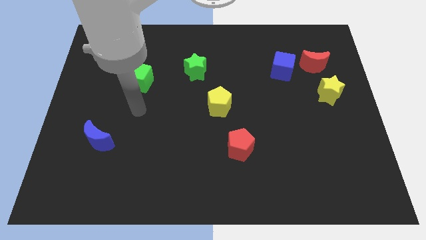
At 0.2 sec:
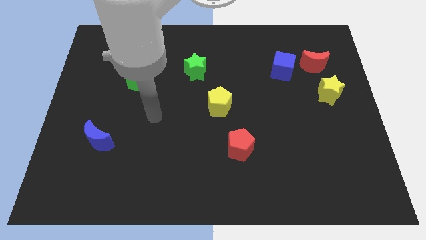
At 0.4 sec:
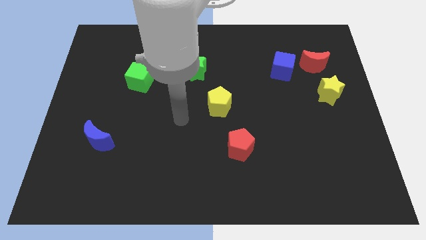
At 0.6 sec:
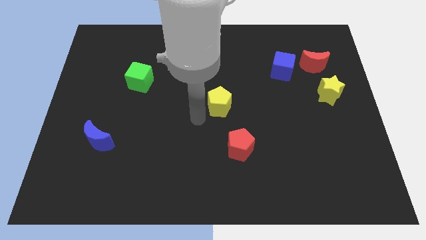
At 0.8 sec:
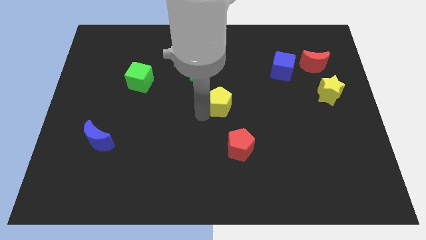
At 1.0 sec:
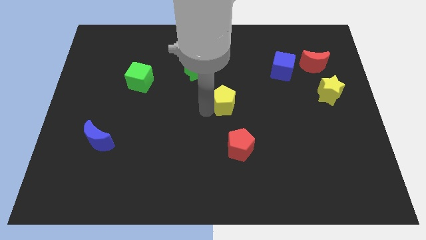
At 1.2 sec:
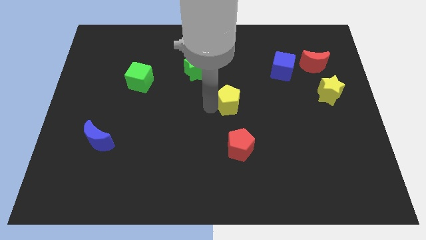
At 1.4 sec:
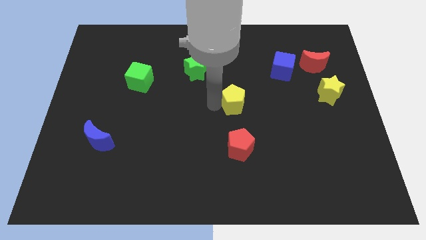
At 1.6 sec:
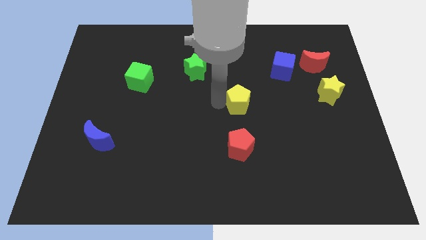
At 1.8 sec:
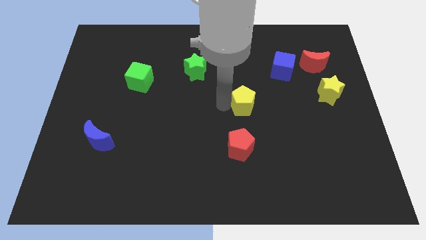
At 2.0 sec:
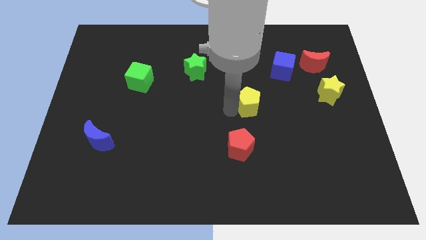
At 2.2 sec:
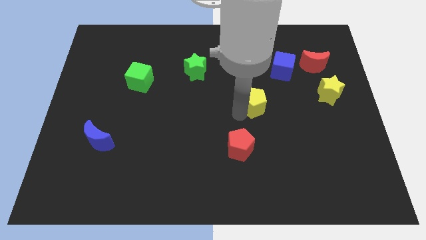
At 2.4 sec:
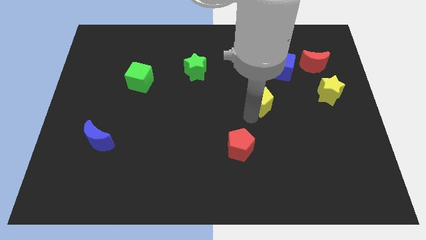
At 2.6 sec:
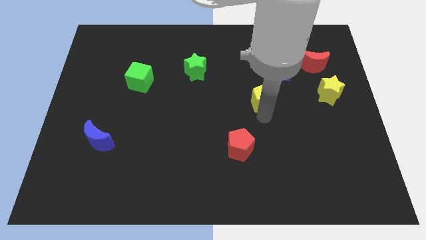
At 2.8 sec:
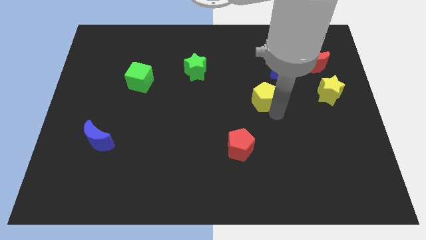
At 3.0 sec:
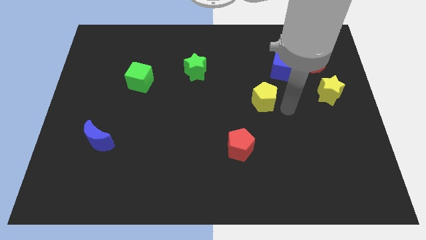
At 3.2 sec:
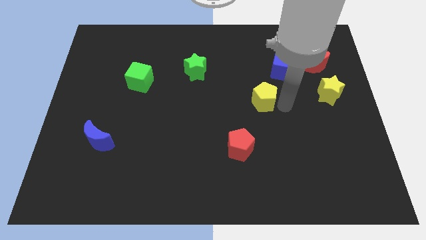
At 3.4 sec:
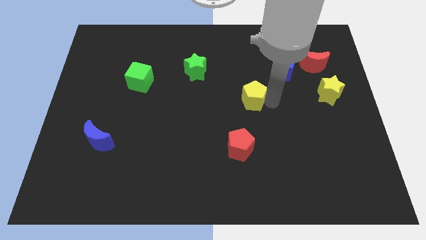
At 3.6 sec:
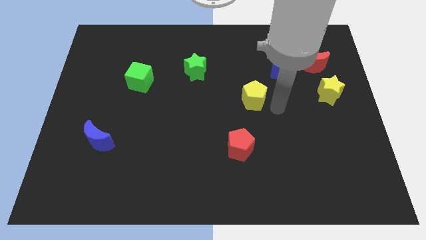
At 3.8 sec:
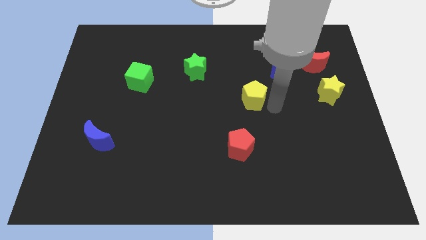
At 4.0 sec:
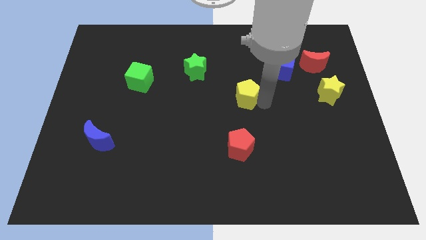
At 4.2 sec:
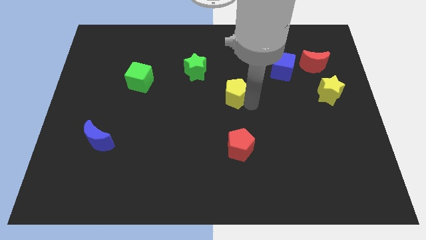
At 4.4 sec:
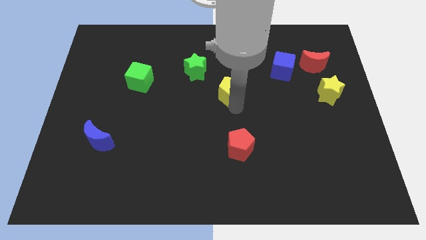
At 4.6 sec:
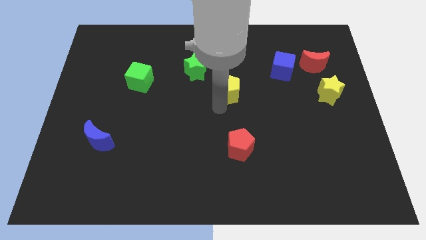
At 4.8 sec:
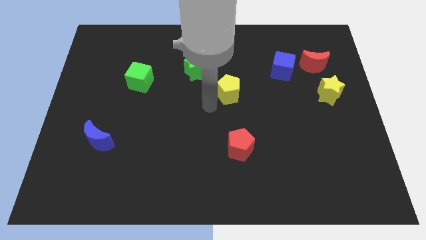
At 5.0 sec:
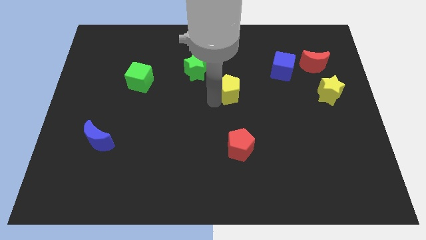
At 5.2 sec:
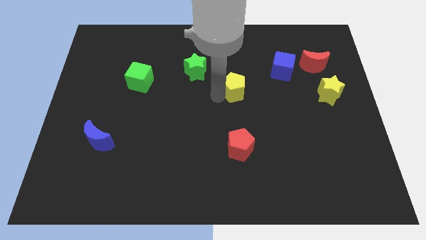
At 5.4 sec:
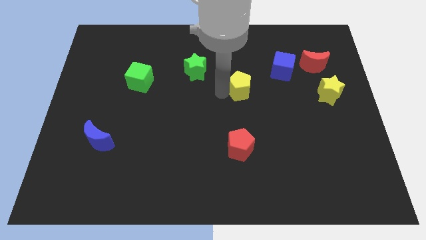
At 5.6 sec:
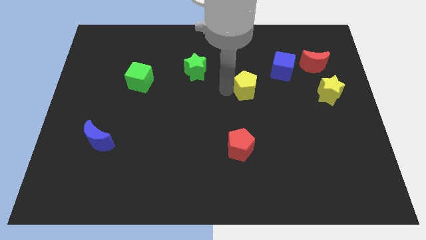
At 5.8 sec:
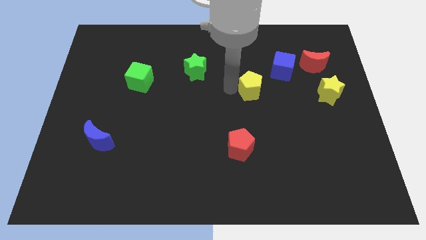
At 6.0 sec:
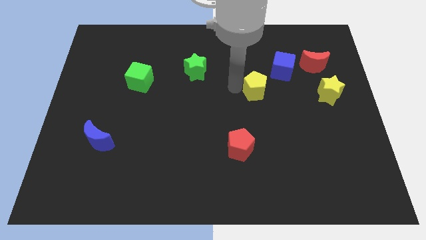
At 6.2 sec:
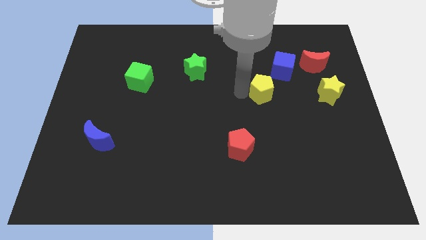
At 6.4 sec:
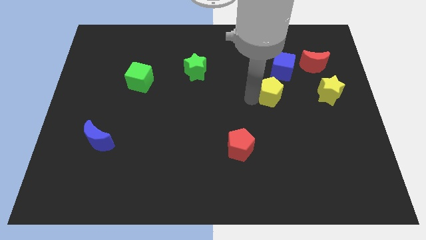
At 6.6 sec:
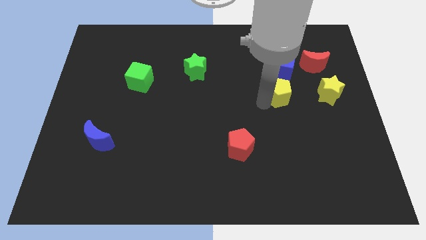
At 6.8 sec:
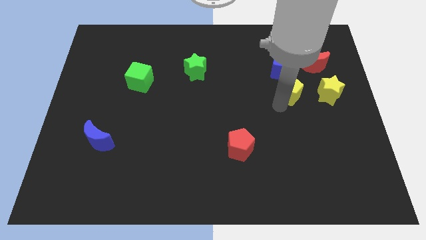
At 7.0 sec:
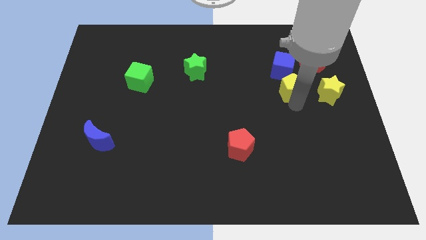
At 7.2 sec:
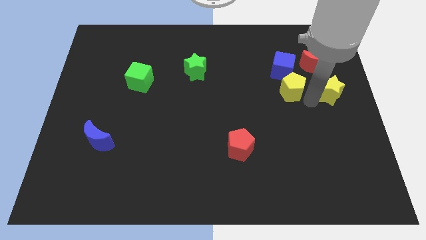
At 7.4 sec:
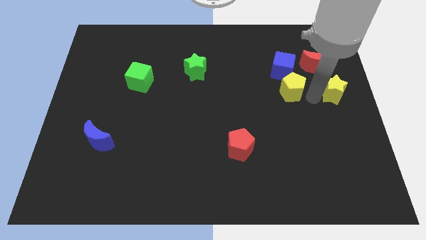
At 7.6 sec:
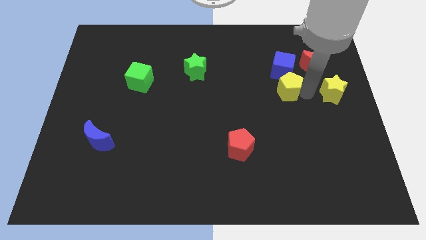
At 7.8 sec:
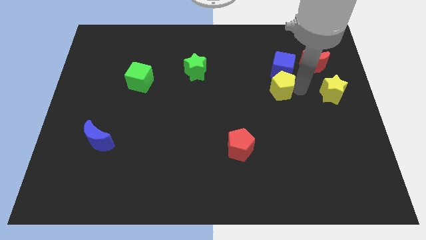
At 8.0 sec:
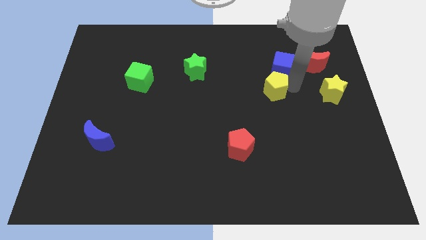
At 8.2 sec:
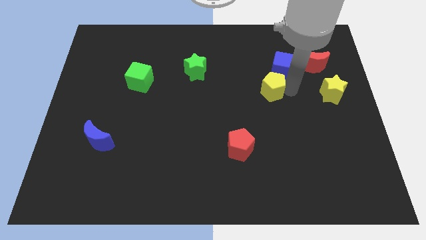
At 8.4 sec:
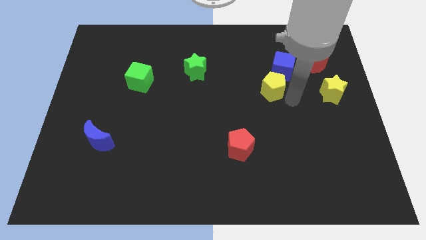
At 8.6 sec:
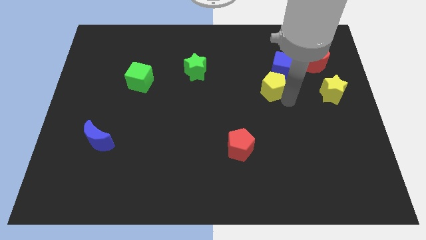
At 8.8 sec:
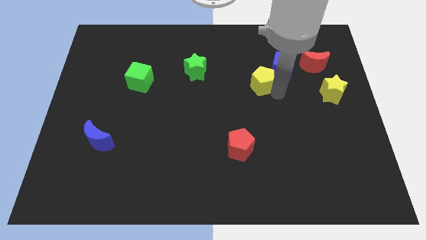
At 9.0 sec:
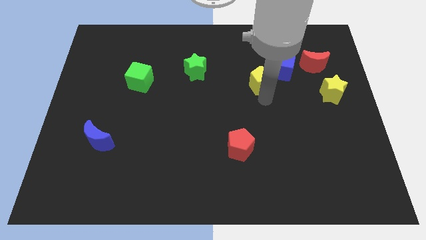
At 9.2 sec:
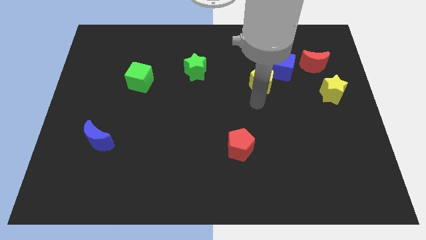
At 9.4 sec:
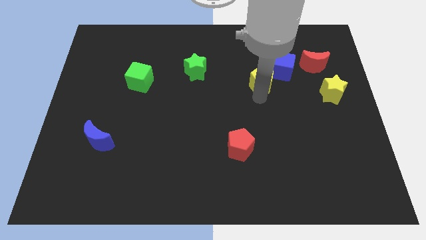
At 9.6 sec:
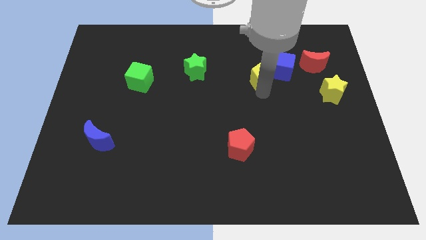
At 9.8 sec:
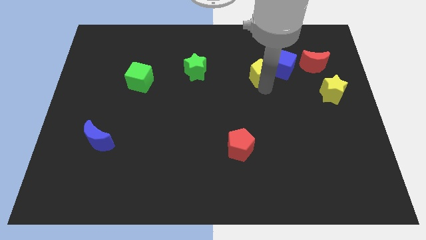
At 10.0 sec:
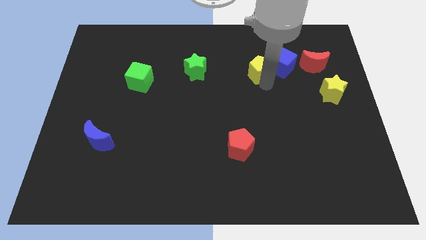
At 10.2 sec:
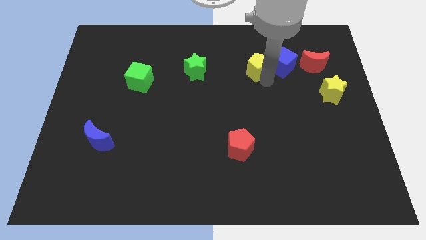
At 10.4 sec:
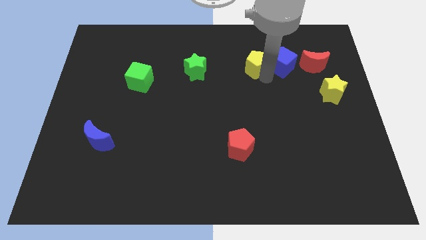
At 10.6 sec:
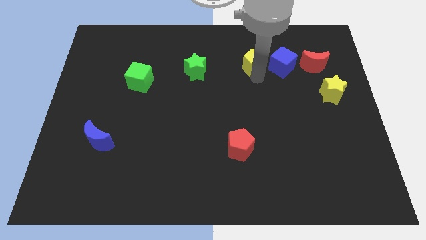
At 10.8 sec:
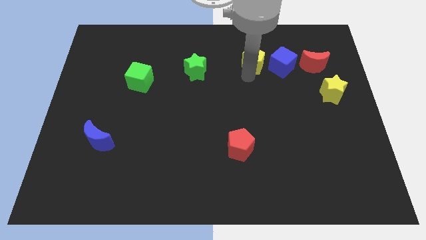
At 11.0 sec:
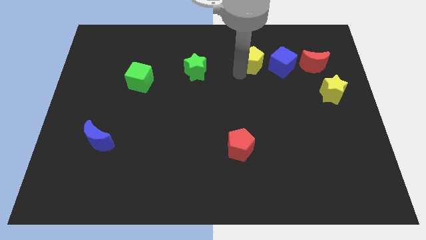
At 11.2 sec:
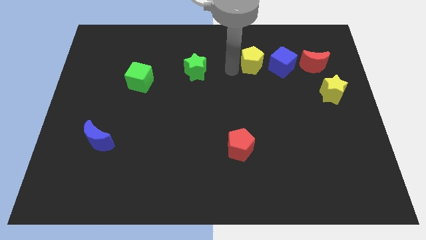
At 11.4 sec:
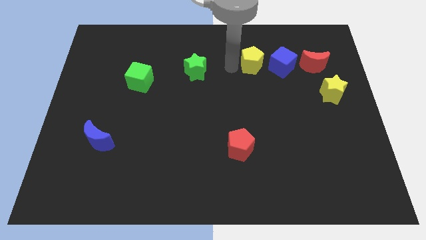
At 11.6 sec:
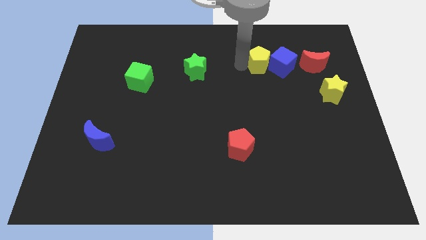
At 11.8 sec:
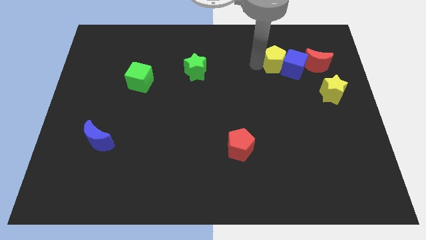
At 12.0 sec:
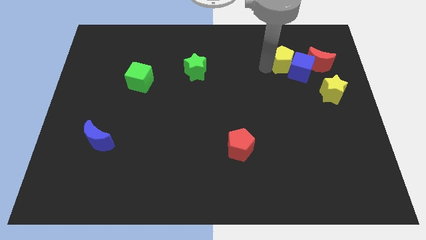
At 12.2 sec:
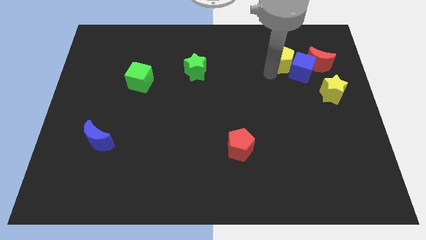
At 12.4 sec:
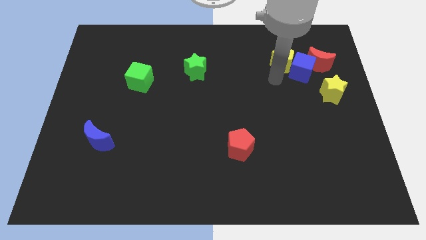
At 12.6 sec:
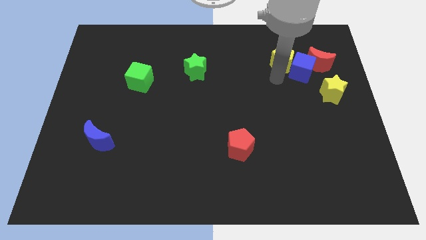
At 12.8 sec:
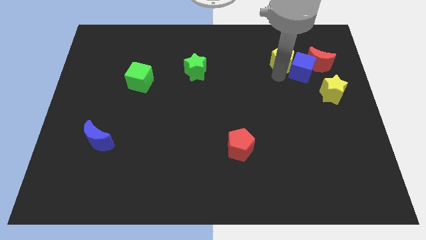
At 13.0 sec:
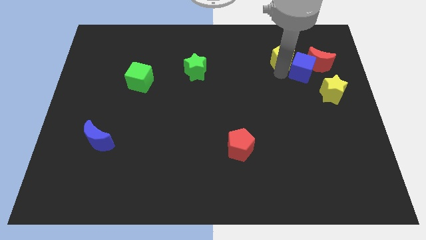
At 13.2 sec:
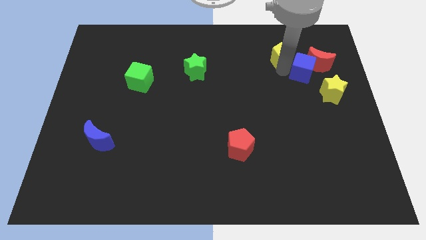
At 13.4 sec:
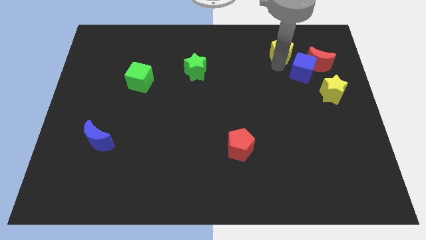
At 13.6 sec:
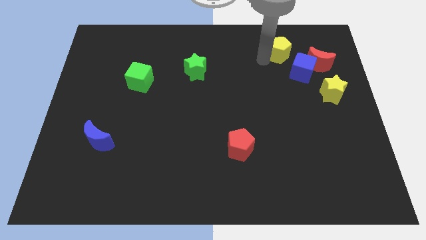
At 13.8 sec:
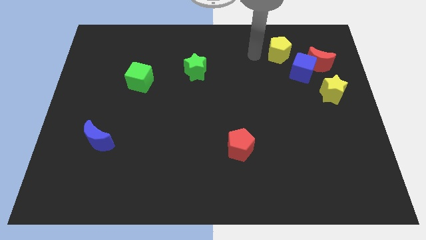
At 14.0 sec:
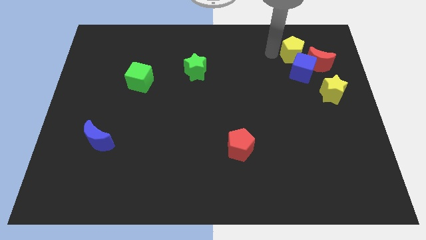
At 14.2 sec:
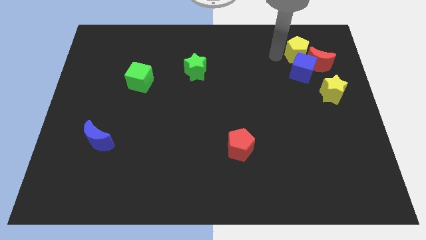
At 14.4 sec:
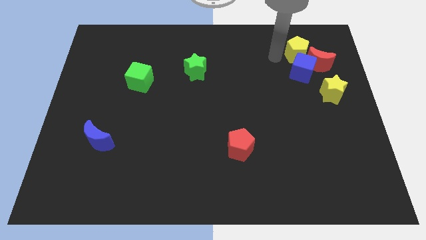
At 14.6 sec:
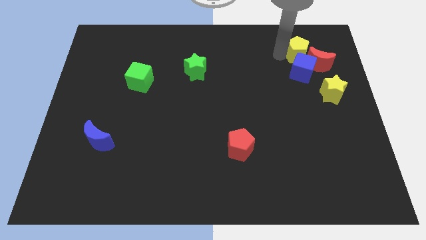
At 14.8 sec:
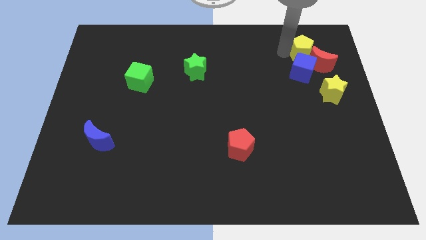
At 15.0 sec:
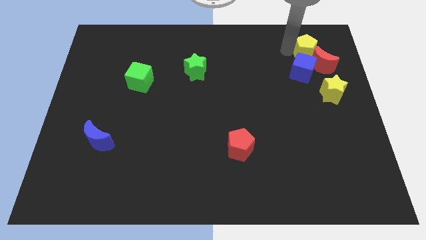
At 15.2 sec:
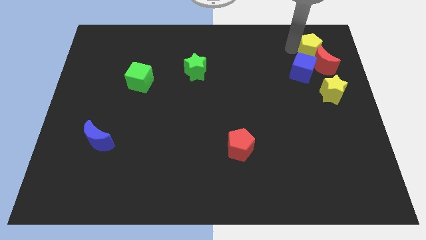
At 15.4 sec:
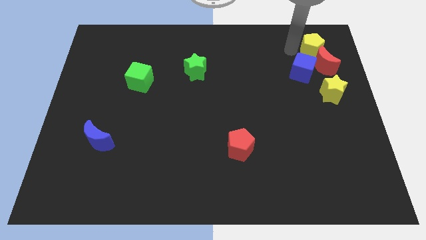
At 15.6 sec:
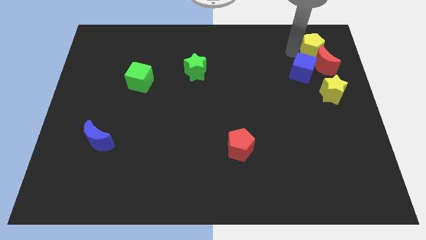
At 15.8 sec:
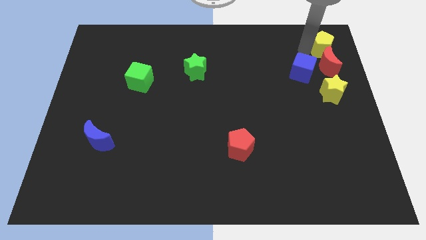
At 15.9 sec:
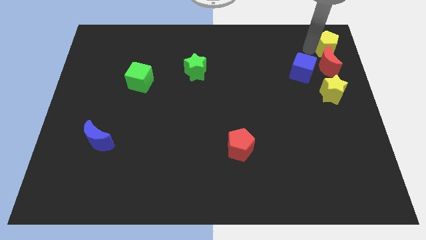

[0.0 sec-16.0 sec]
move the yellow pentagon to the top right of the board
